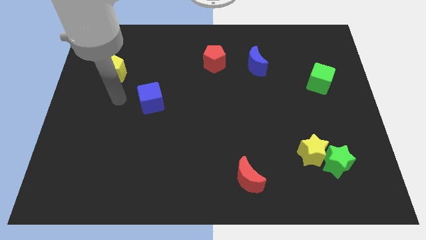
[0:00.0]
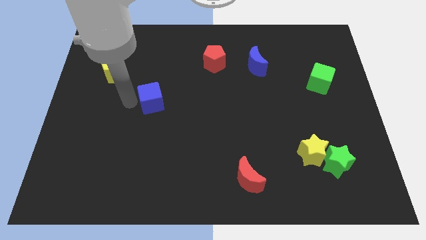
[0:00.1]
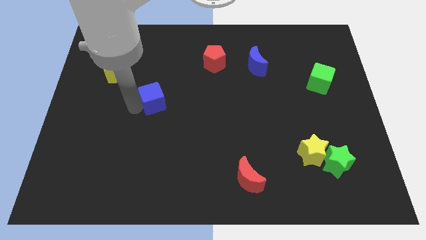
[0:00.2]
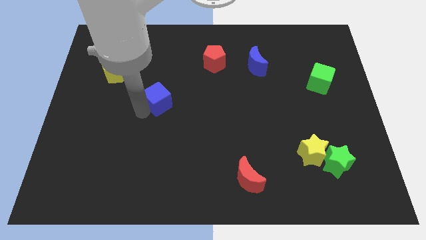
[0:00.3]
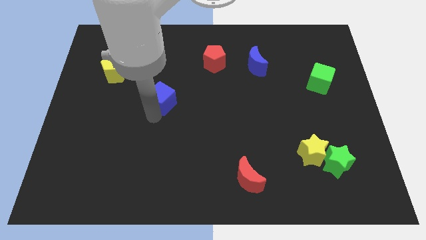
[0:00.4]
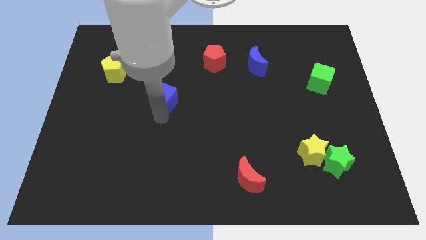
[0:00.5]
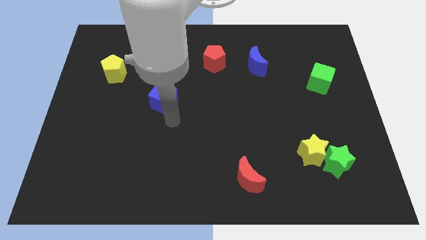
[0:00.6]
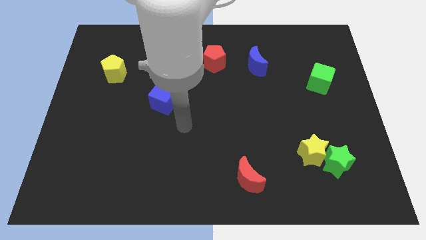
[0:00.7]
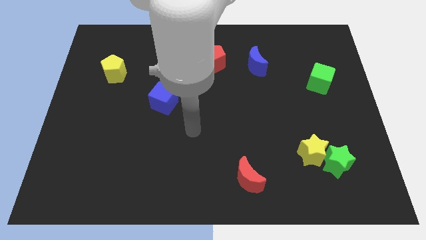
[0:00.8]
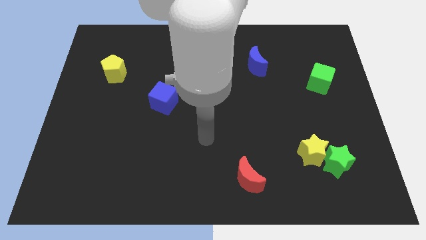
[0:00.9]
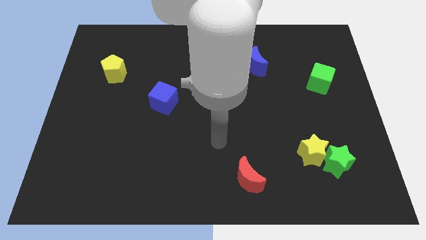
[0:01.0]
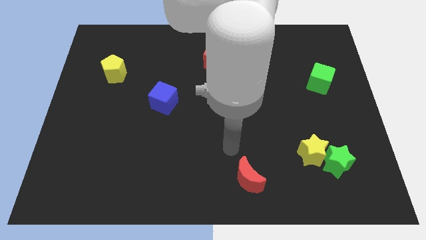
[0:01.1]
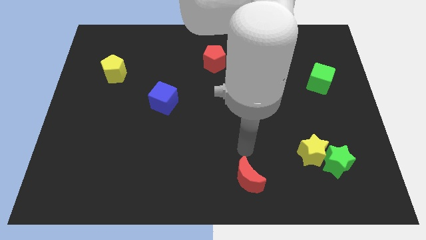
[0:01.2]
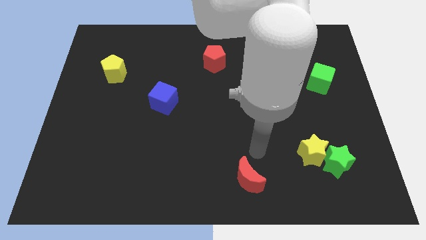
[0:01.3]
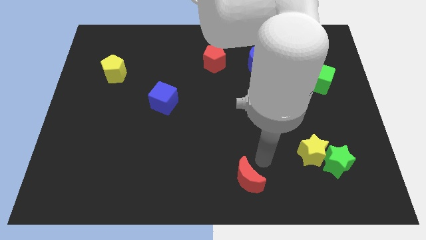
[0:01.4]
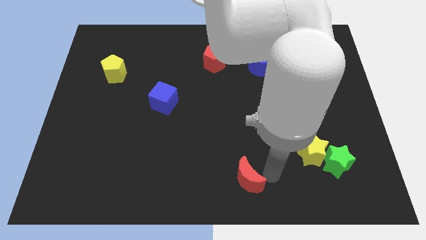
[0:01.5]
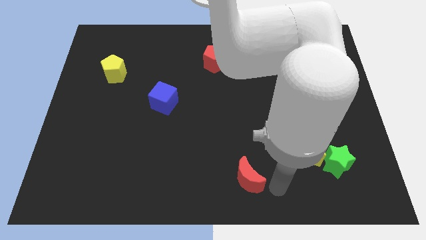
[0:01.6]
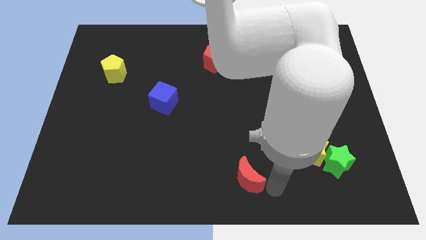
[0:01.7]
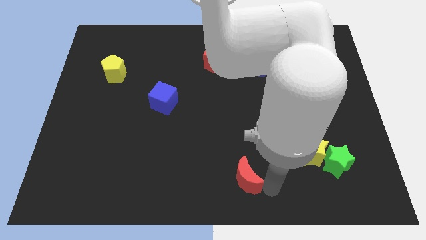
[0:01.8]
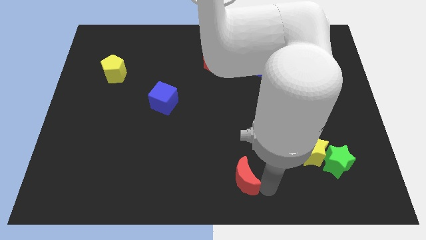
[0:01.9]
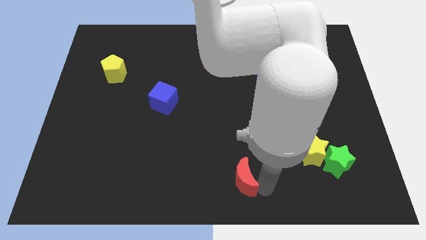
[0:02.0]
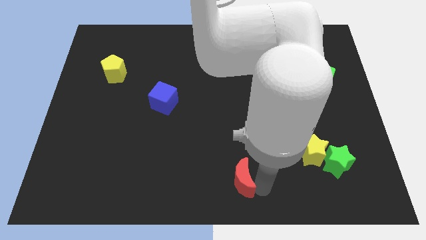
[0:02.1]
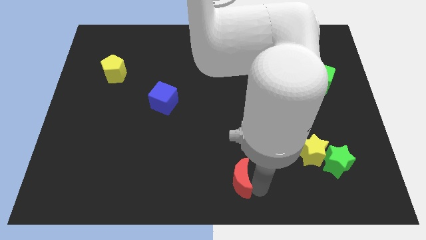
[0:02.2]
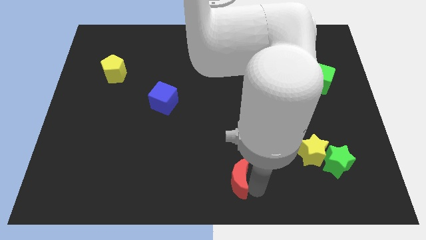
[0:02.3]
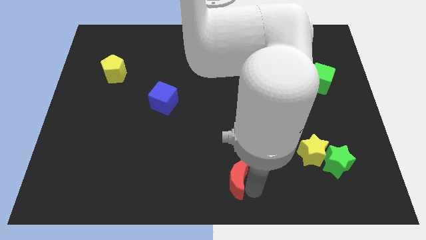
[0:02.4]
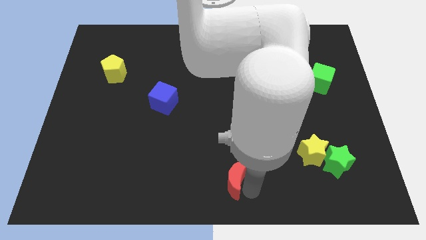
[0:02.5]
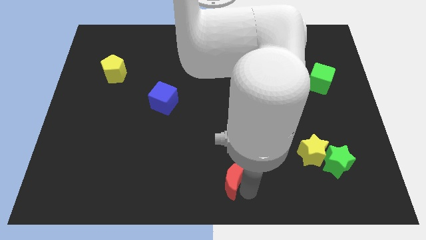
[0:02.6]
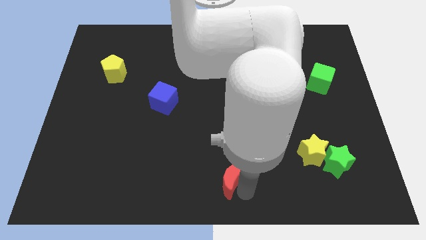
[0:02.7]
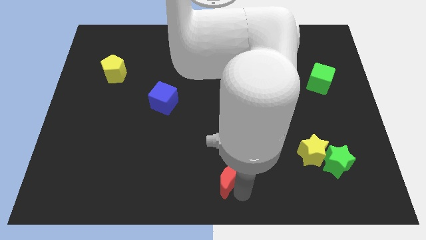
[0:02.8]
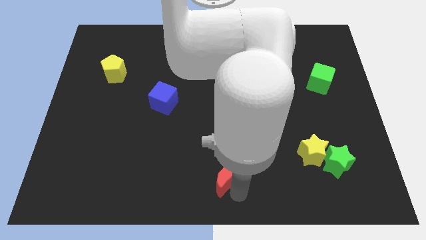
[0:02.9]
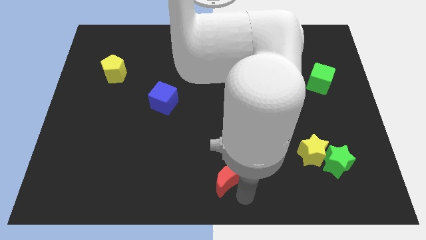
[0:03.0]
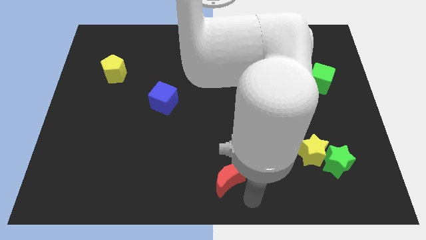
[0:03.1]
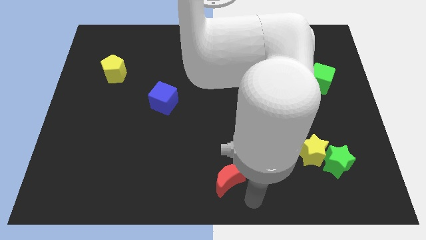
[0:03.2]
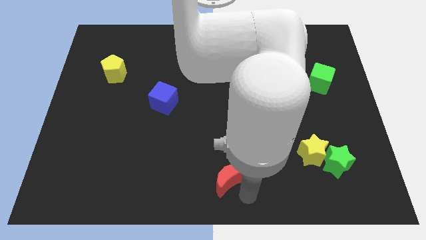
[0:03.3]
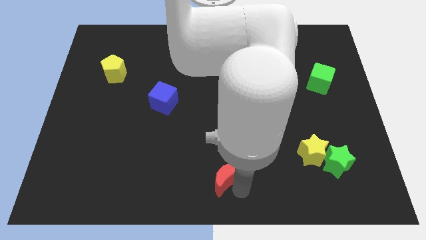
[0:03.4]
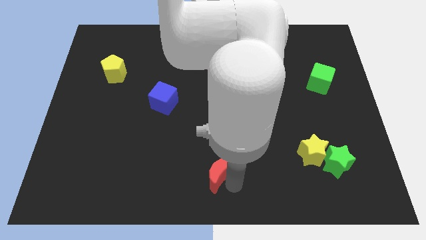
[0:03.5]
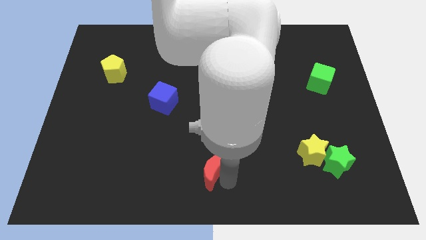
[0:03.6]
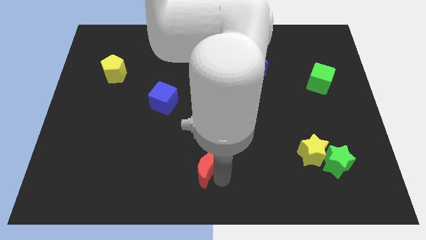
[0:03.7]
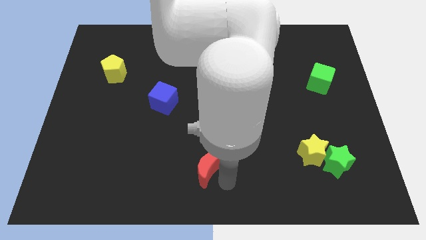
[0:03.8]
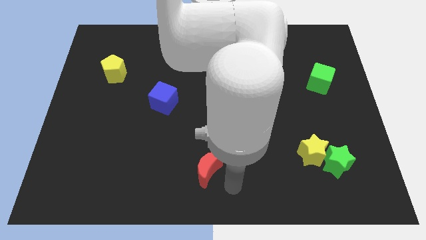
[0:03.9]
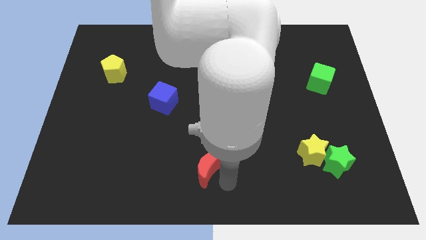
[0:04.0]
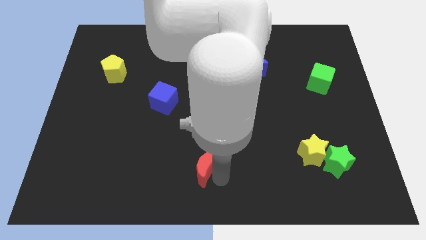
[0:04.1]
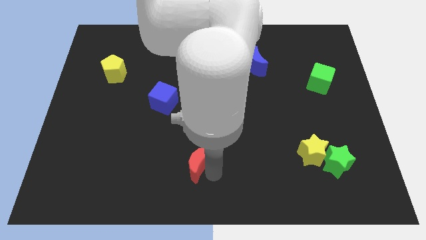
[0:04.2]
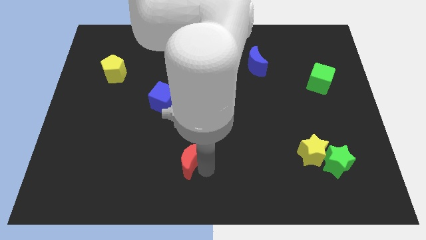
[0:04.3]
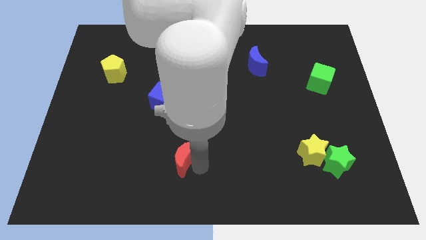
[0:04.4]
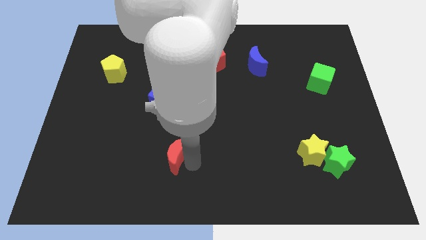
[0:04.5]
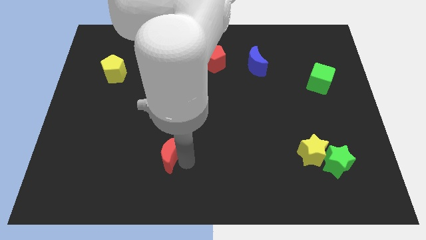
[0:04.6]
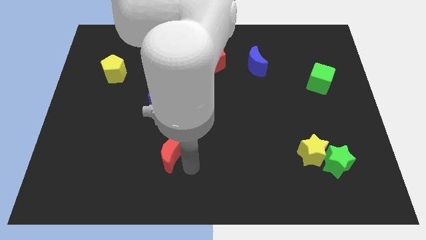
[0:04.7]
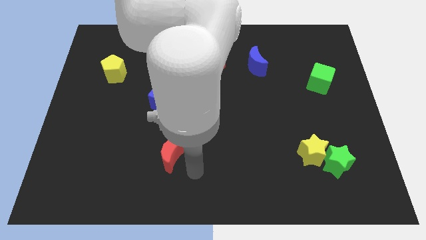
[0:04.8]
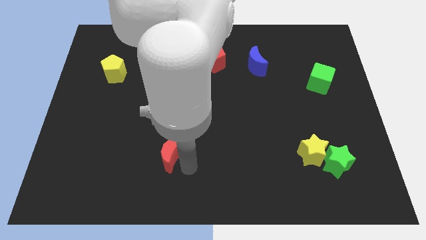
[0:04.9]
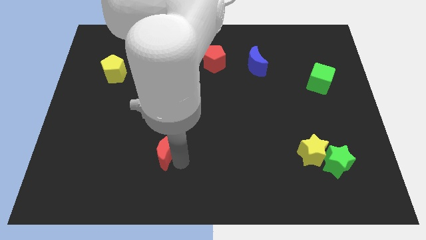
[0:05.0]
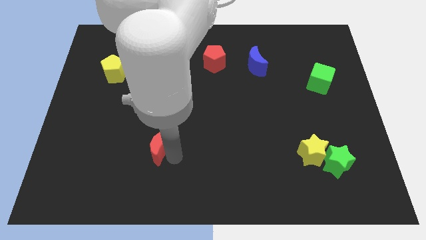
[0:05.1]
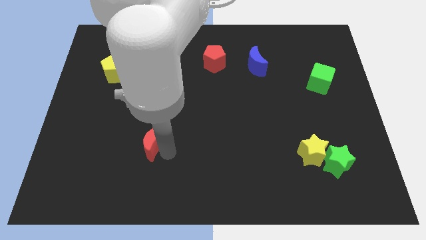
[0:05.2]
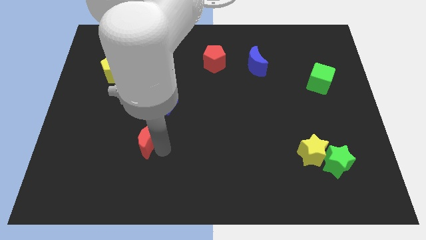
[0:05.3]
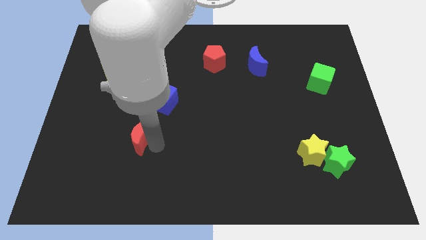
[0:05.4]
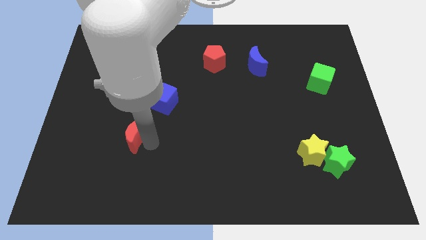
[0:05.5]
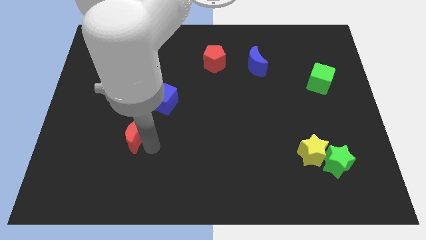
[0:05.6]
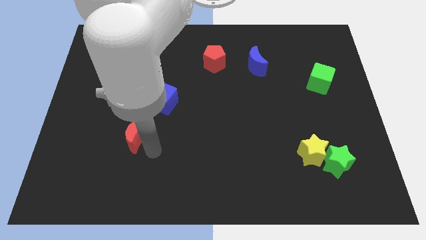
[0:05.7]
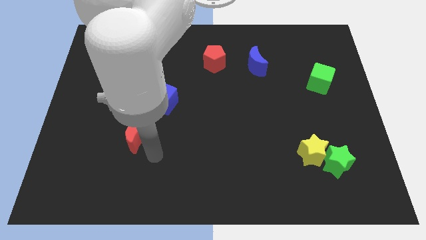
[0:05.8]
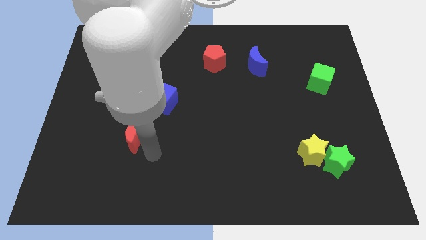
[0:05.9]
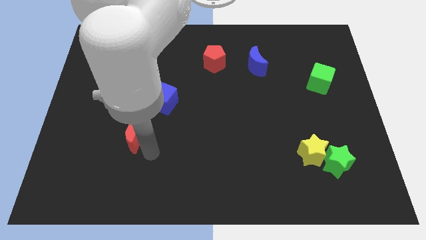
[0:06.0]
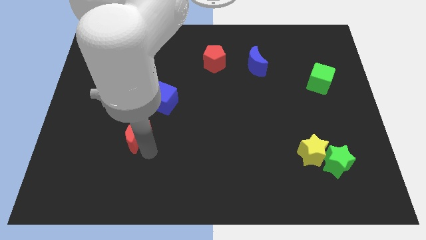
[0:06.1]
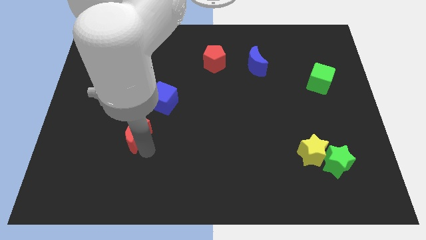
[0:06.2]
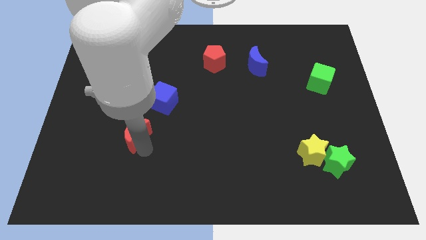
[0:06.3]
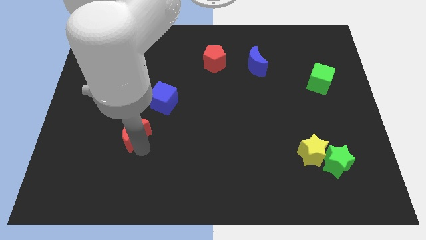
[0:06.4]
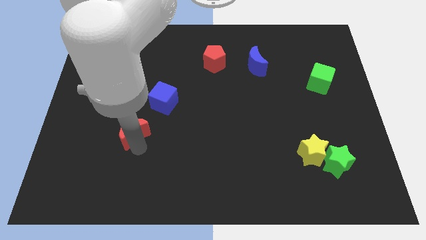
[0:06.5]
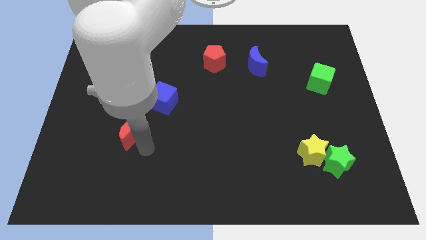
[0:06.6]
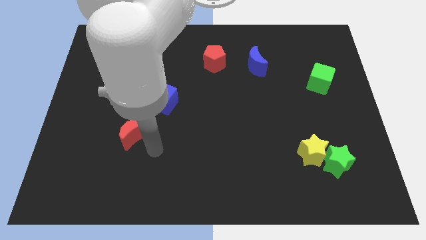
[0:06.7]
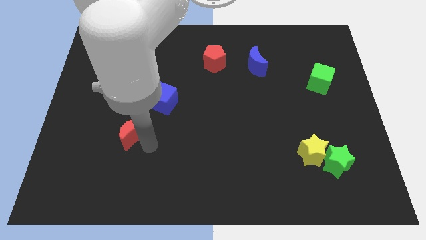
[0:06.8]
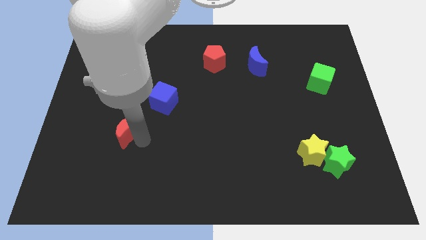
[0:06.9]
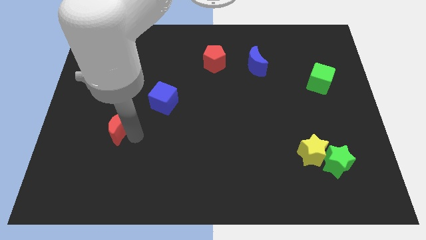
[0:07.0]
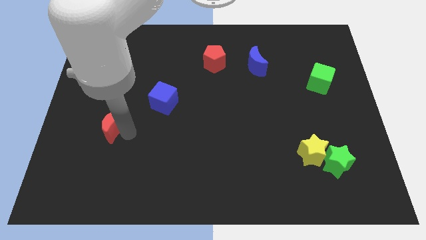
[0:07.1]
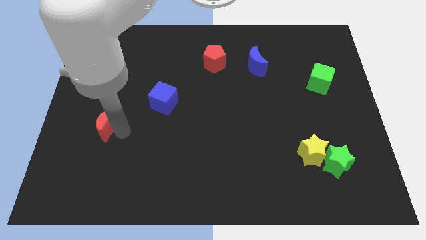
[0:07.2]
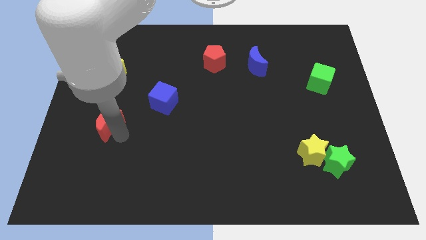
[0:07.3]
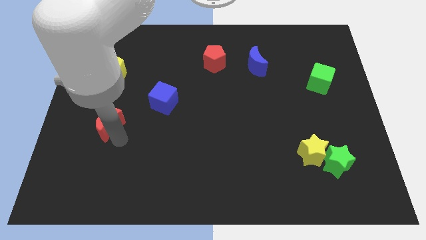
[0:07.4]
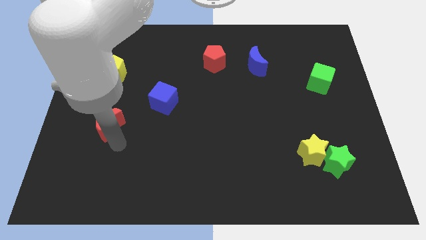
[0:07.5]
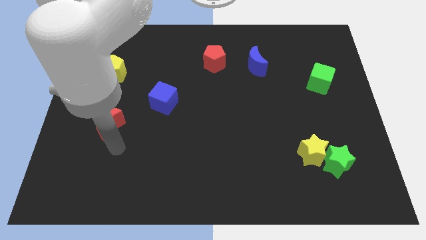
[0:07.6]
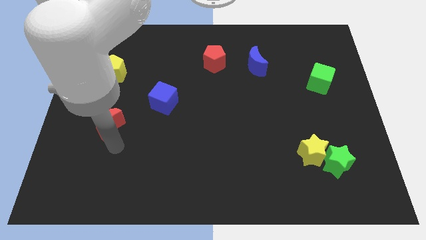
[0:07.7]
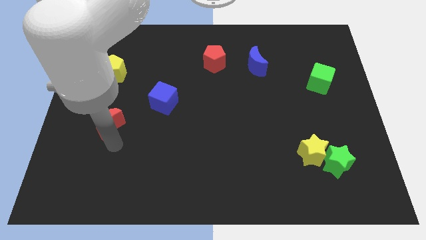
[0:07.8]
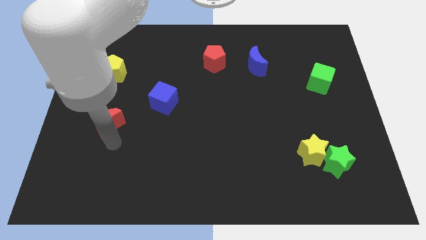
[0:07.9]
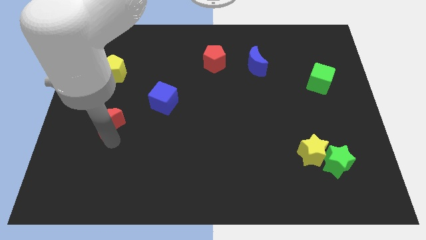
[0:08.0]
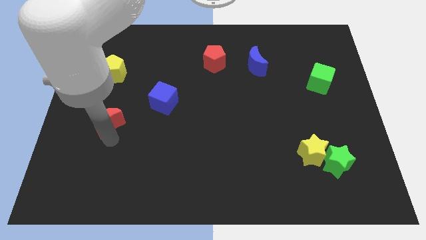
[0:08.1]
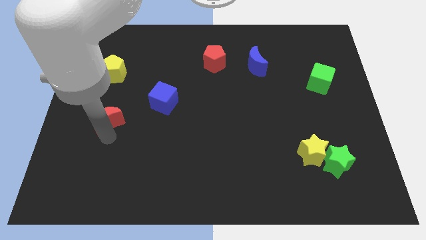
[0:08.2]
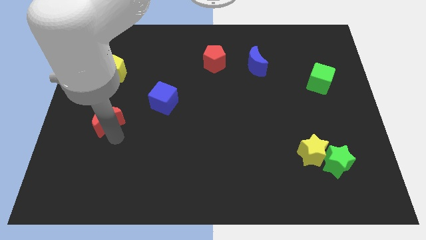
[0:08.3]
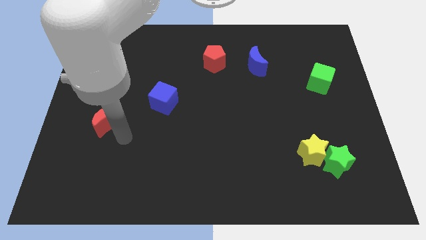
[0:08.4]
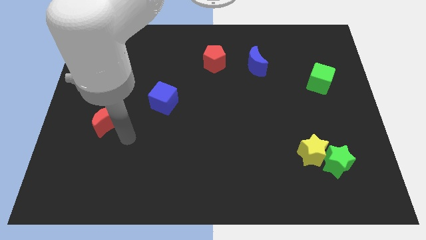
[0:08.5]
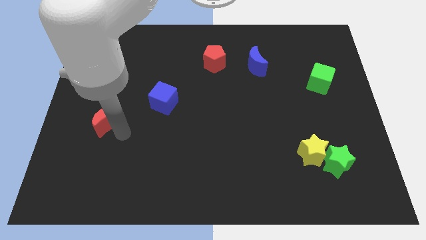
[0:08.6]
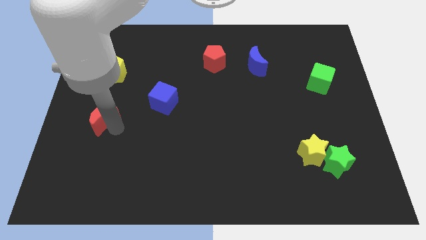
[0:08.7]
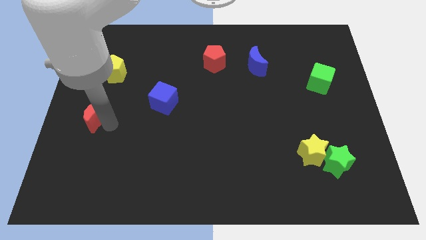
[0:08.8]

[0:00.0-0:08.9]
push the red moon to the center left
